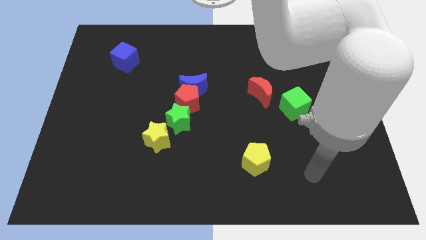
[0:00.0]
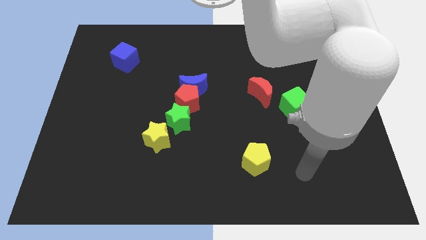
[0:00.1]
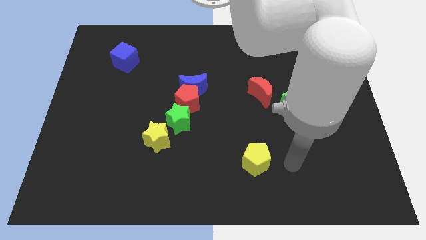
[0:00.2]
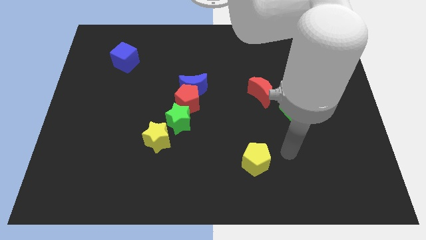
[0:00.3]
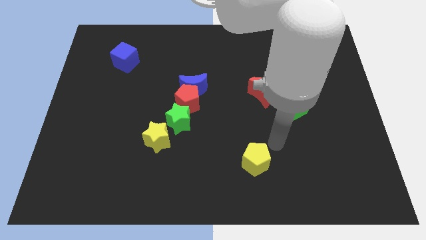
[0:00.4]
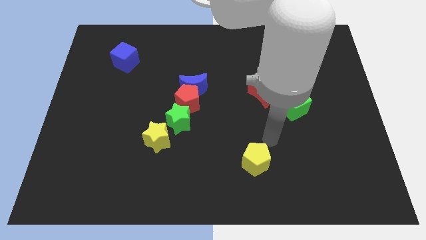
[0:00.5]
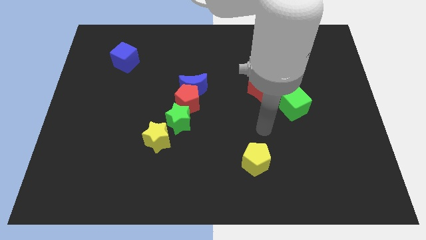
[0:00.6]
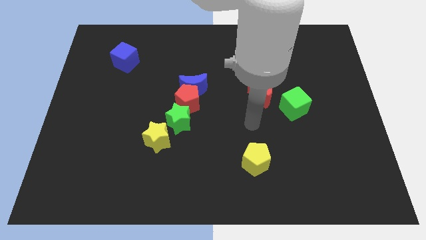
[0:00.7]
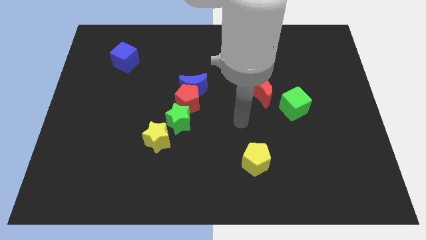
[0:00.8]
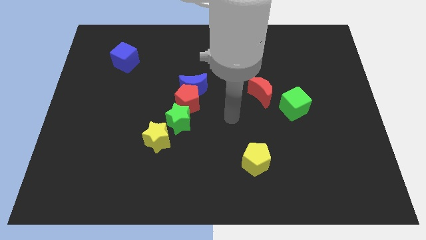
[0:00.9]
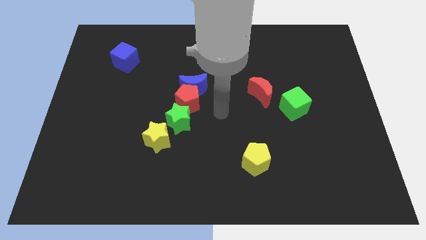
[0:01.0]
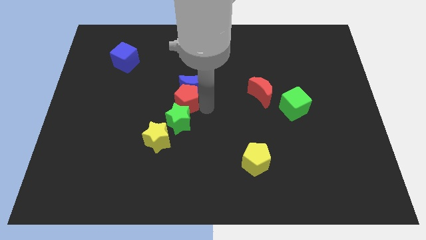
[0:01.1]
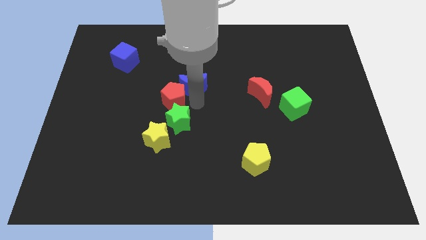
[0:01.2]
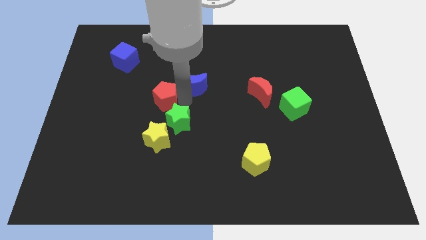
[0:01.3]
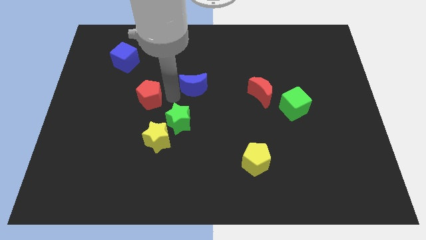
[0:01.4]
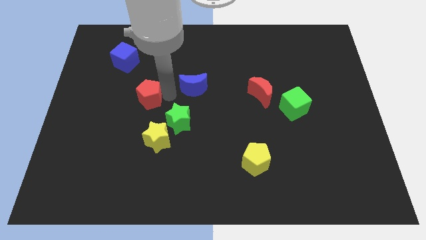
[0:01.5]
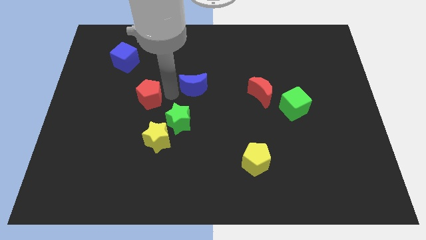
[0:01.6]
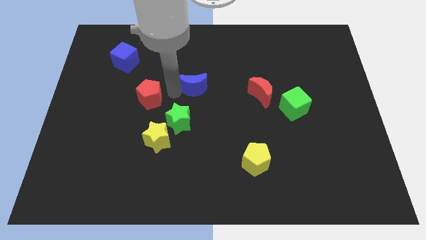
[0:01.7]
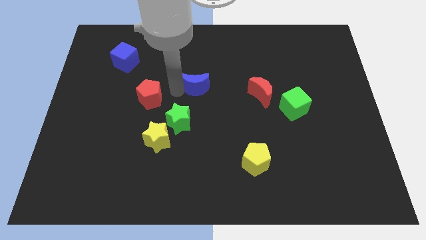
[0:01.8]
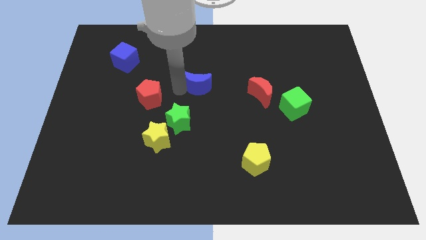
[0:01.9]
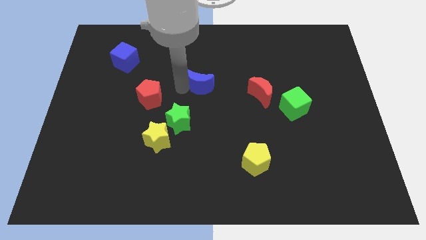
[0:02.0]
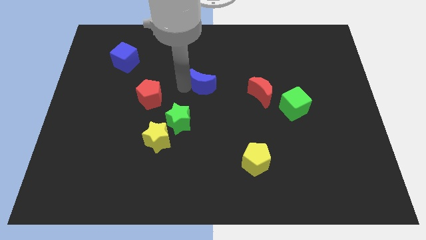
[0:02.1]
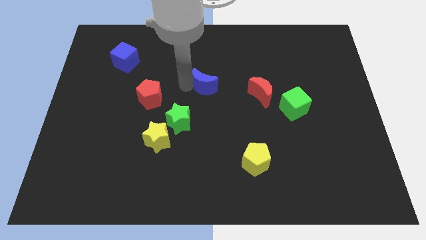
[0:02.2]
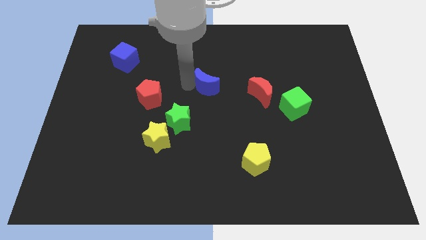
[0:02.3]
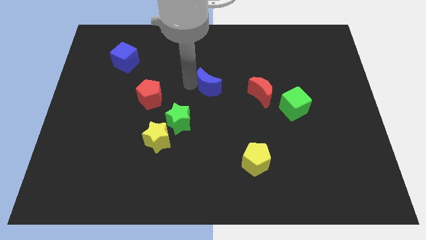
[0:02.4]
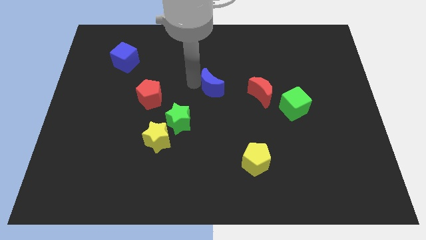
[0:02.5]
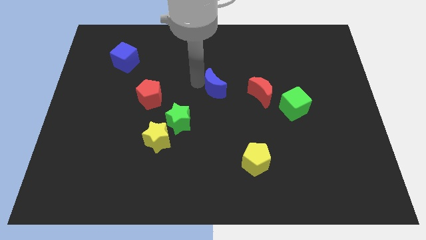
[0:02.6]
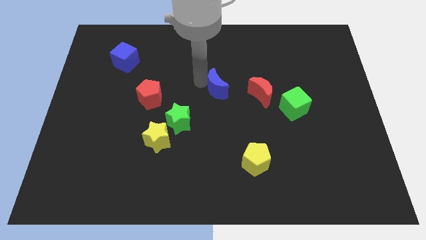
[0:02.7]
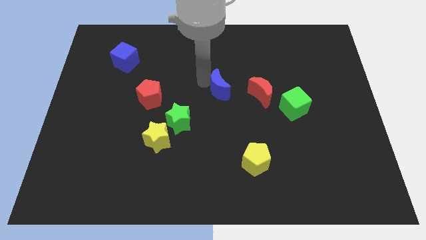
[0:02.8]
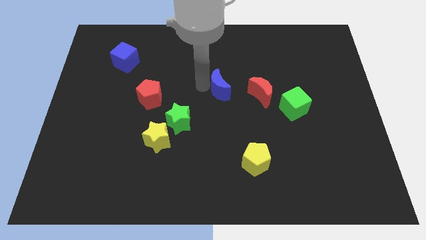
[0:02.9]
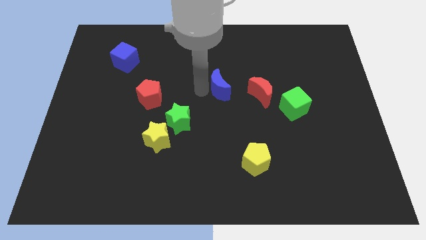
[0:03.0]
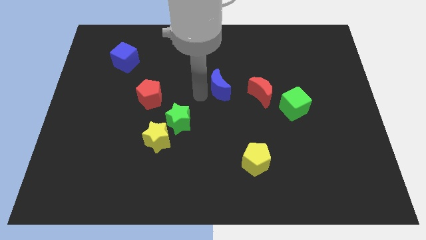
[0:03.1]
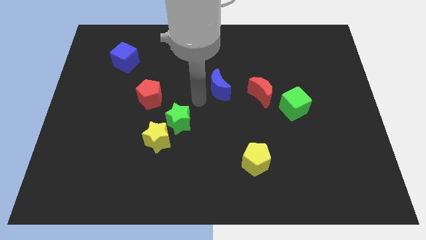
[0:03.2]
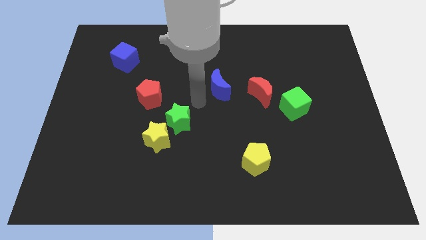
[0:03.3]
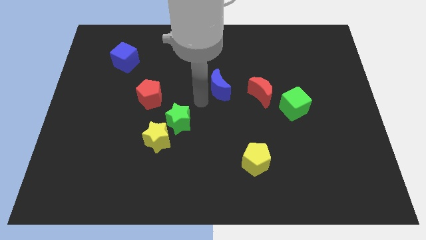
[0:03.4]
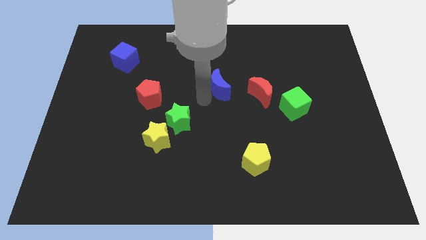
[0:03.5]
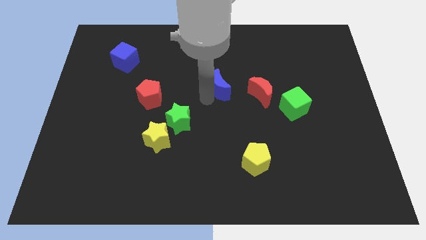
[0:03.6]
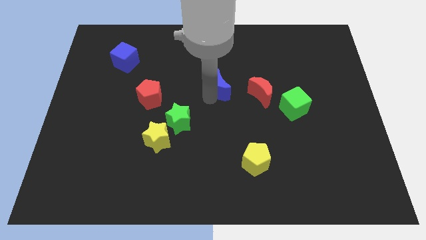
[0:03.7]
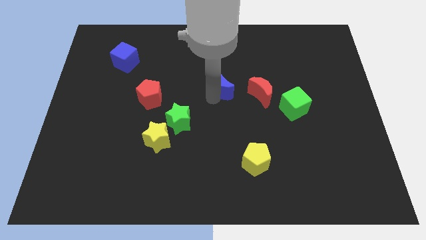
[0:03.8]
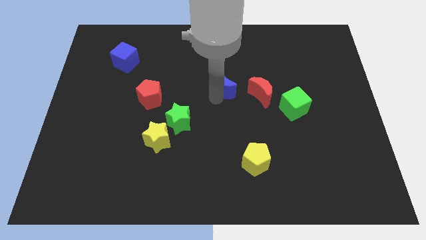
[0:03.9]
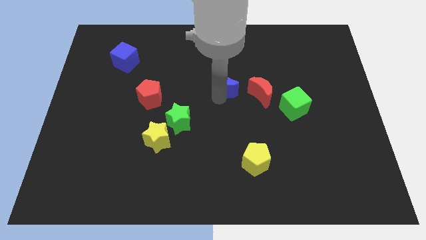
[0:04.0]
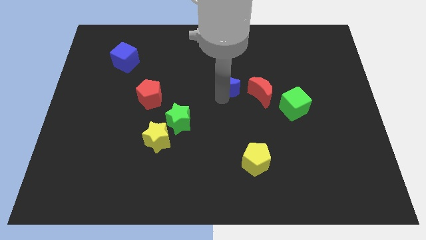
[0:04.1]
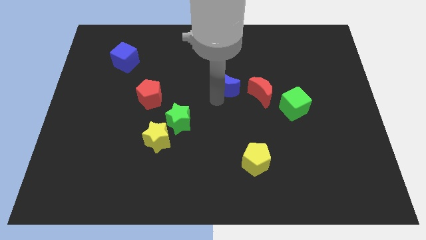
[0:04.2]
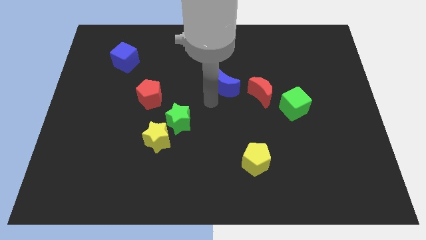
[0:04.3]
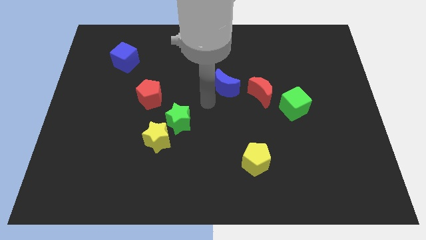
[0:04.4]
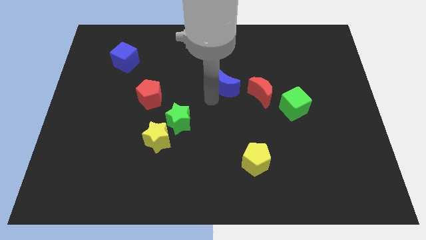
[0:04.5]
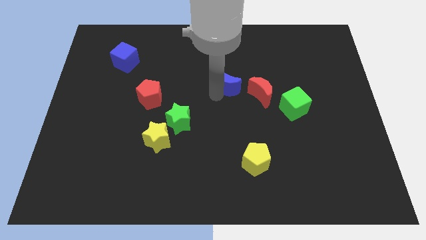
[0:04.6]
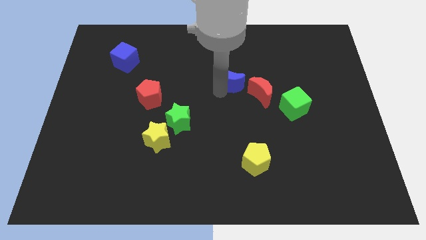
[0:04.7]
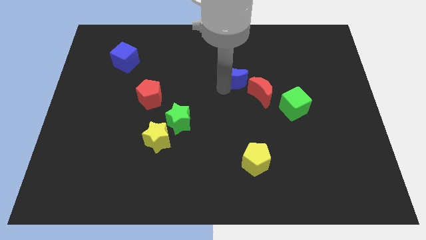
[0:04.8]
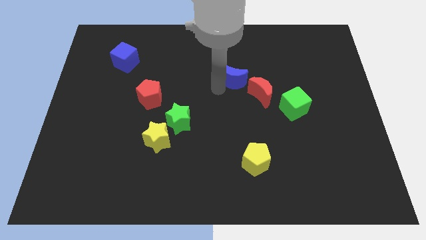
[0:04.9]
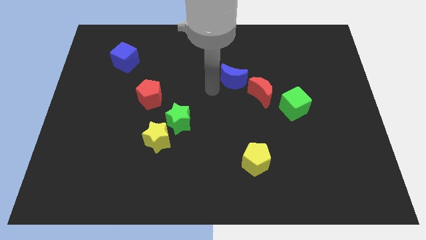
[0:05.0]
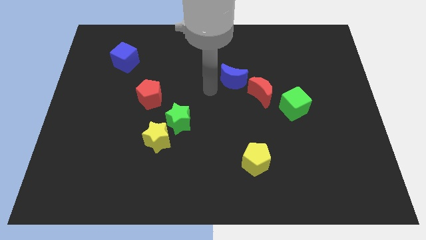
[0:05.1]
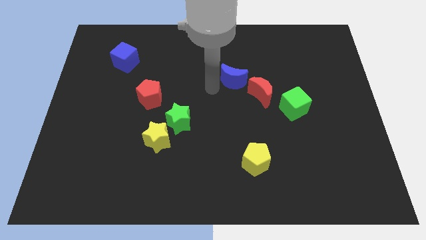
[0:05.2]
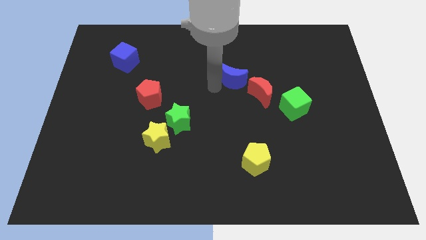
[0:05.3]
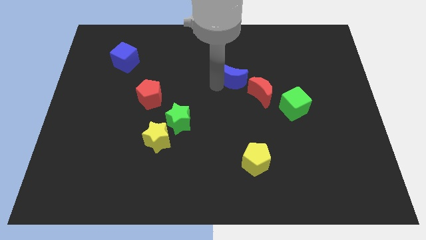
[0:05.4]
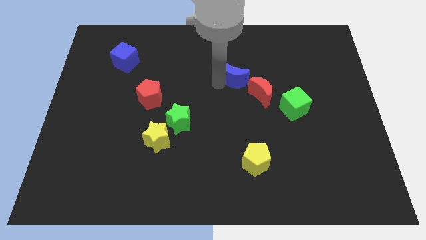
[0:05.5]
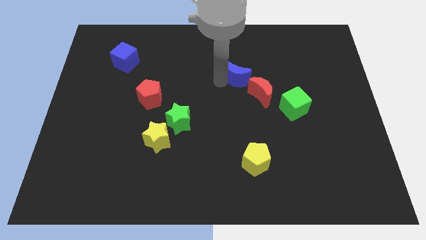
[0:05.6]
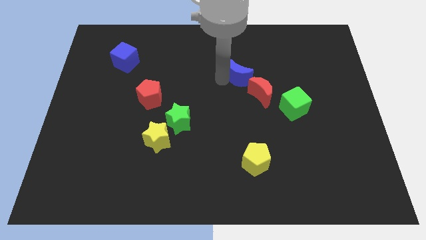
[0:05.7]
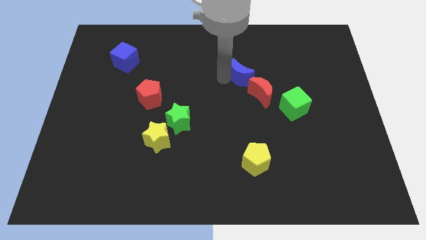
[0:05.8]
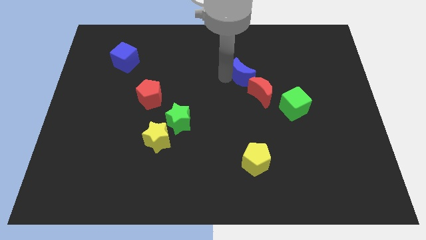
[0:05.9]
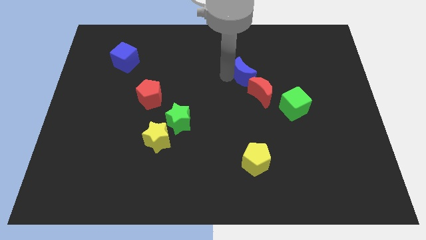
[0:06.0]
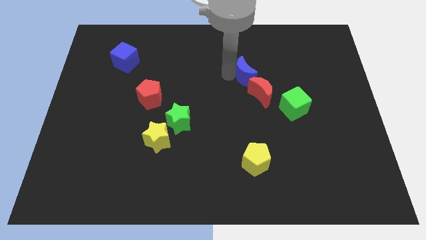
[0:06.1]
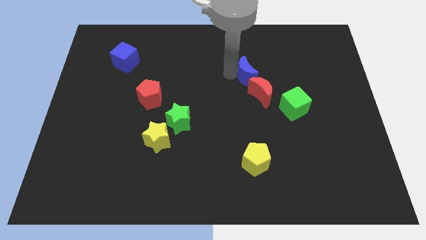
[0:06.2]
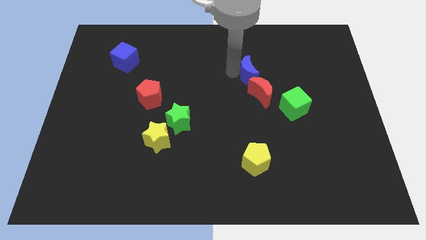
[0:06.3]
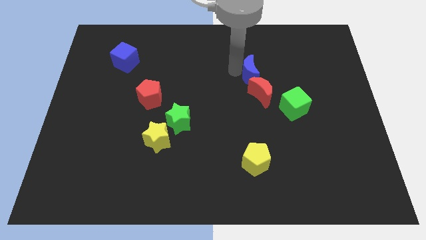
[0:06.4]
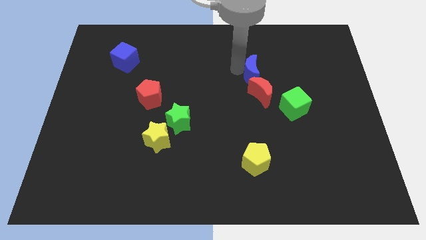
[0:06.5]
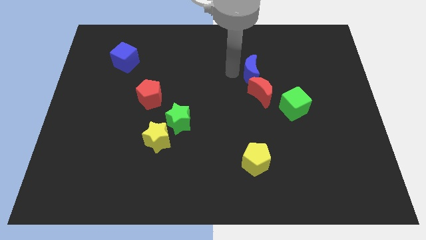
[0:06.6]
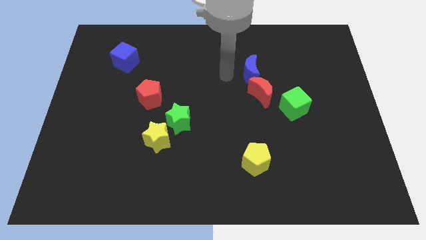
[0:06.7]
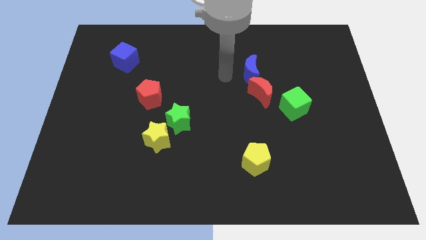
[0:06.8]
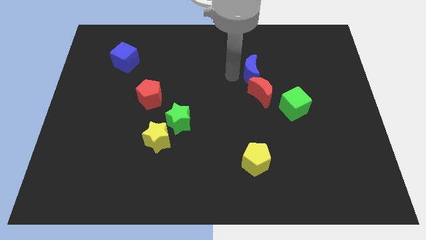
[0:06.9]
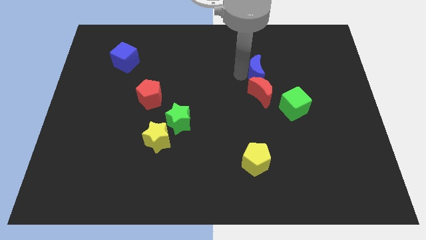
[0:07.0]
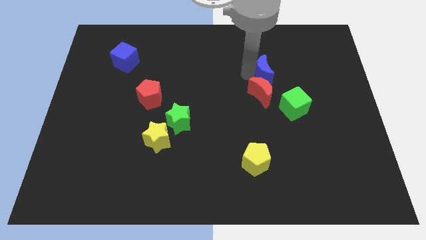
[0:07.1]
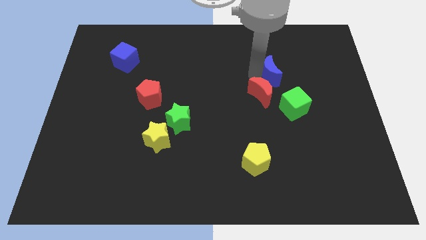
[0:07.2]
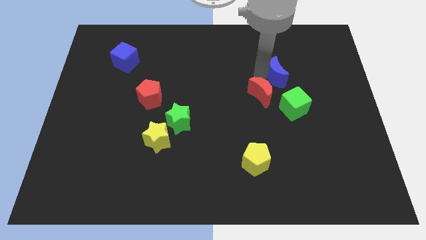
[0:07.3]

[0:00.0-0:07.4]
slide the blue moon right

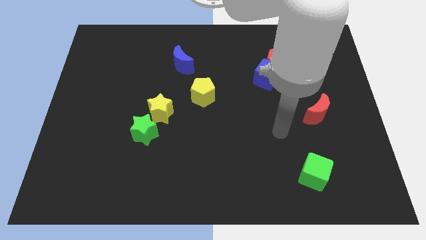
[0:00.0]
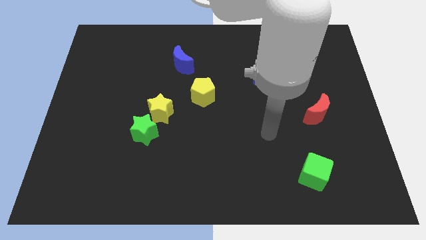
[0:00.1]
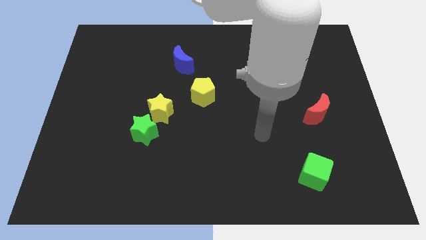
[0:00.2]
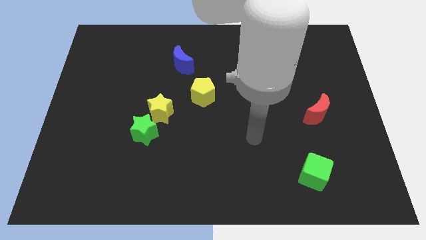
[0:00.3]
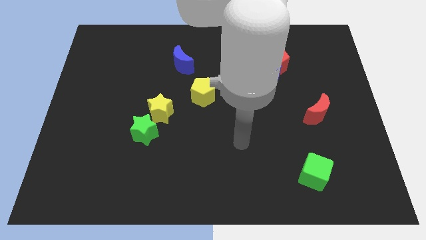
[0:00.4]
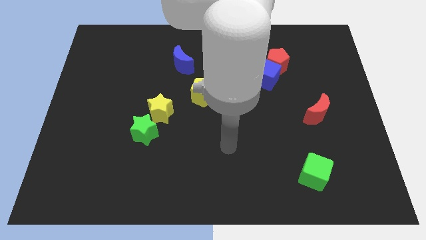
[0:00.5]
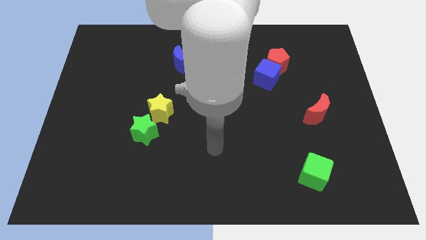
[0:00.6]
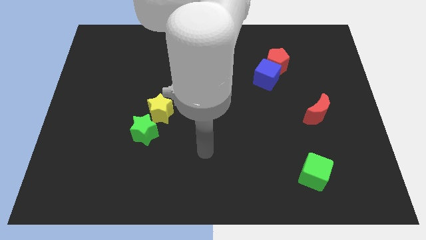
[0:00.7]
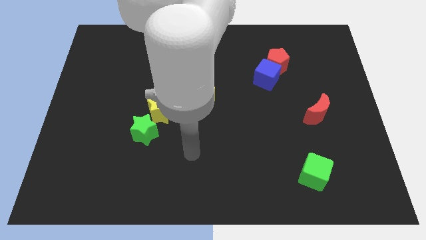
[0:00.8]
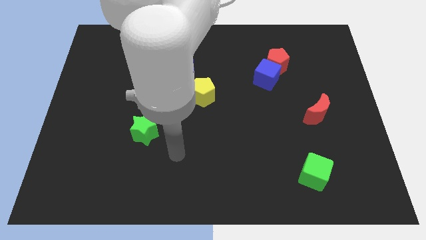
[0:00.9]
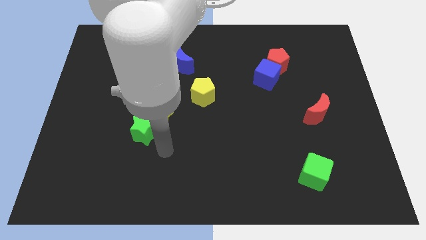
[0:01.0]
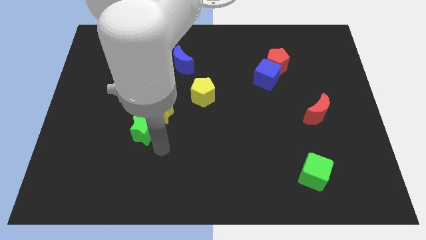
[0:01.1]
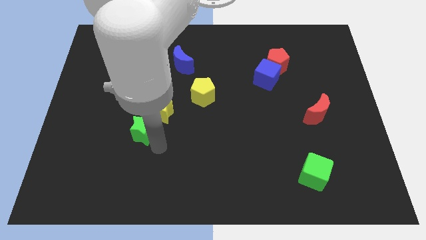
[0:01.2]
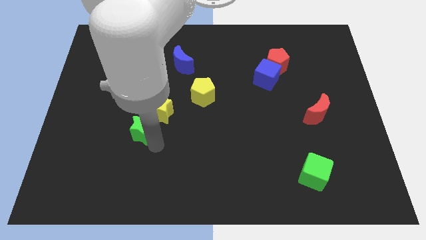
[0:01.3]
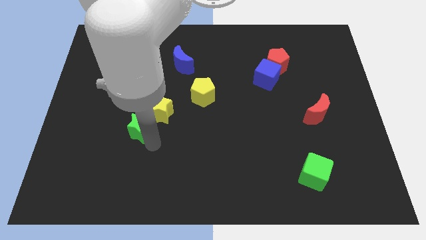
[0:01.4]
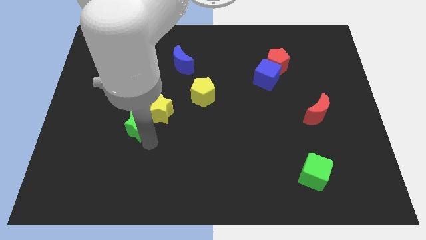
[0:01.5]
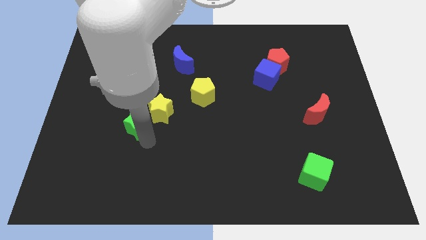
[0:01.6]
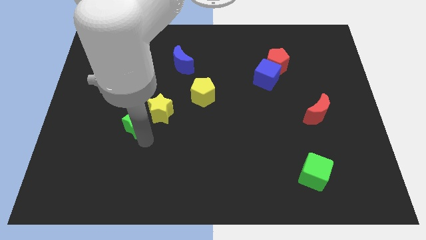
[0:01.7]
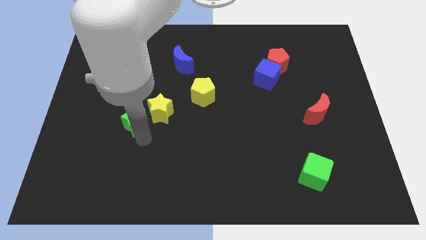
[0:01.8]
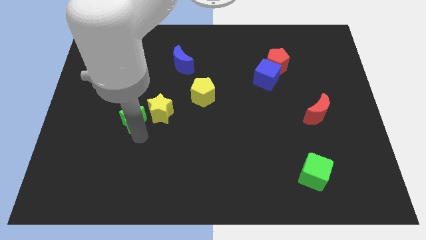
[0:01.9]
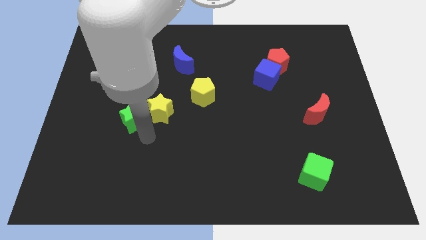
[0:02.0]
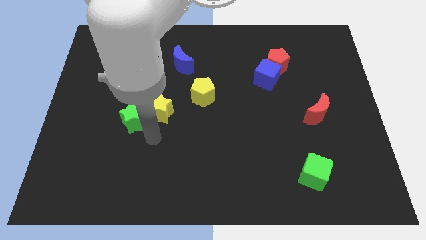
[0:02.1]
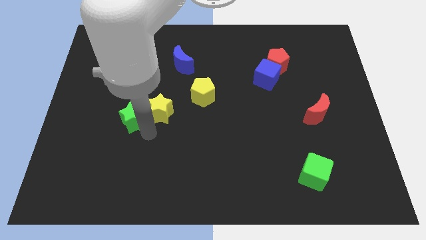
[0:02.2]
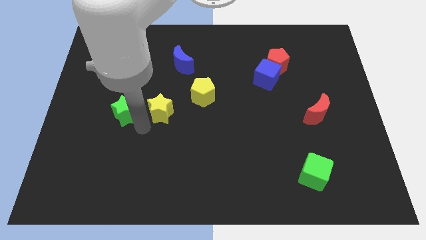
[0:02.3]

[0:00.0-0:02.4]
push the green star slightly diagonally up and to the left
